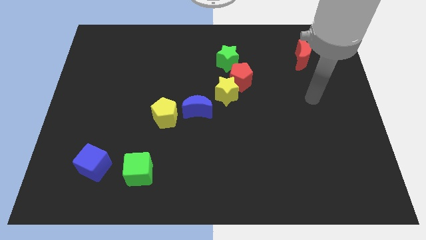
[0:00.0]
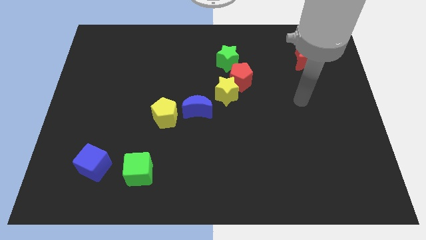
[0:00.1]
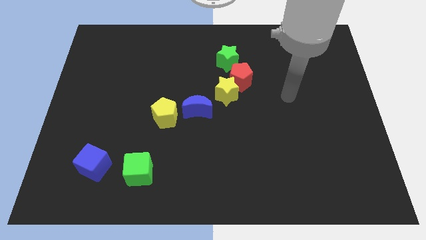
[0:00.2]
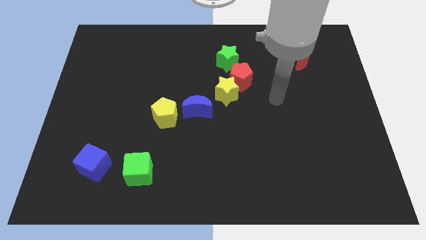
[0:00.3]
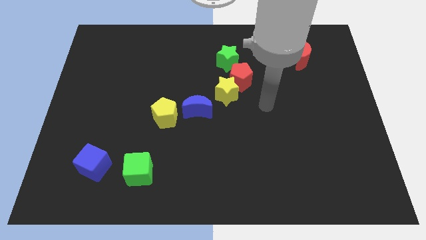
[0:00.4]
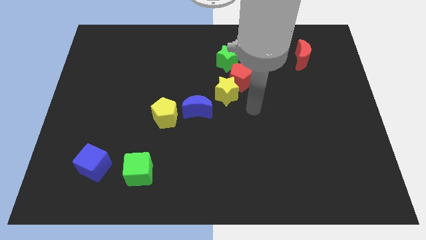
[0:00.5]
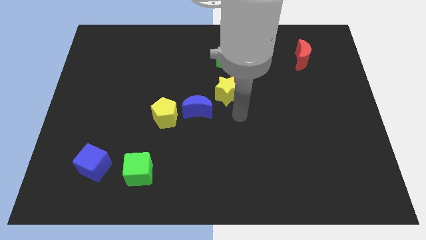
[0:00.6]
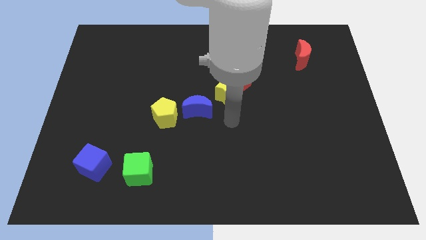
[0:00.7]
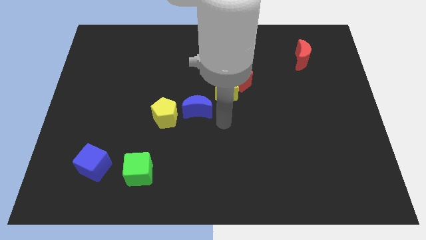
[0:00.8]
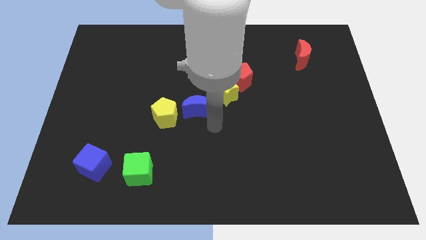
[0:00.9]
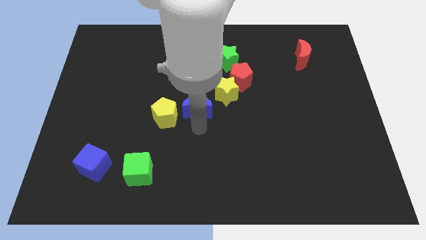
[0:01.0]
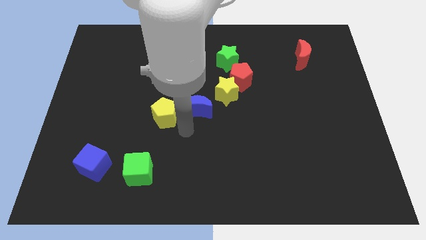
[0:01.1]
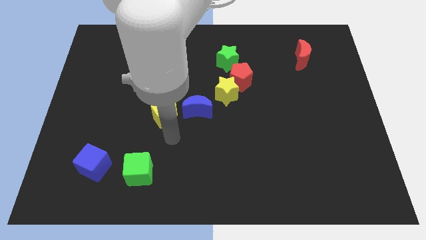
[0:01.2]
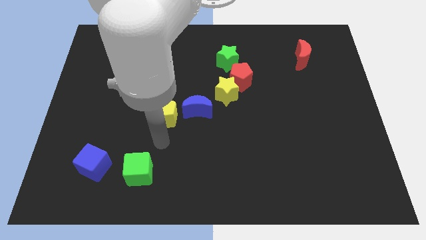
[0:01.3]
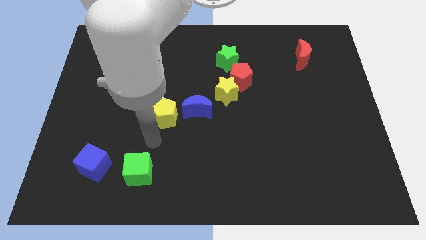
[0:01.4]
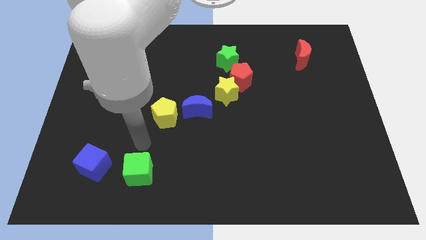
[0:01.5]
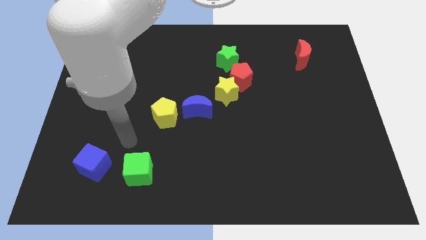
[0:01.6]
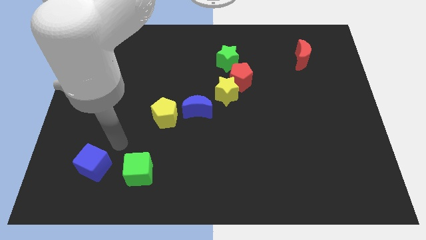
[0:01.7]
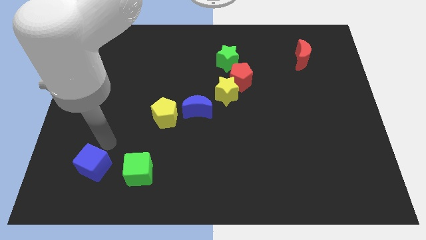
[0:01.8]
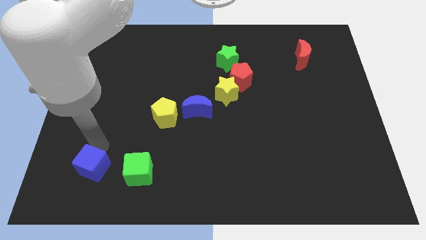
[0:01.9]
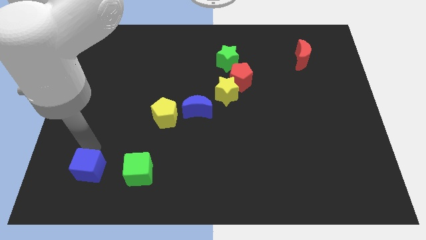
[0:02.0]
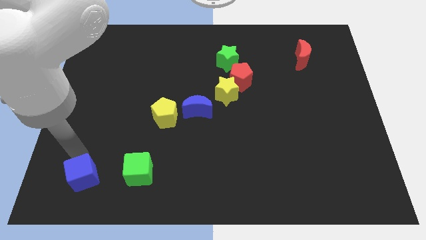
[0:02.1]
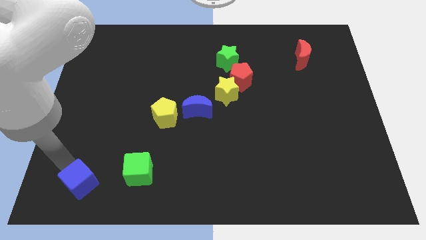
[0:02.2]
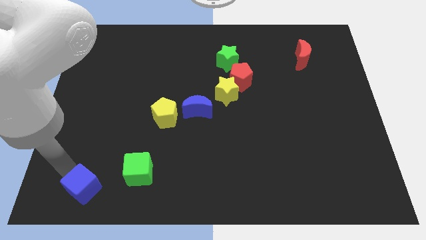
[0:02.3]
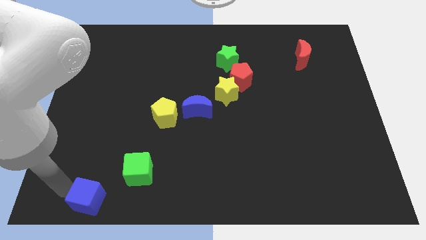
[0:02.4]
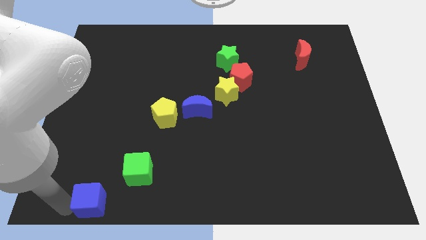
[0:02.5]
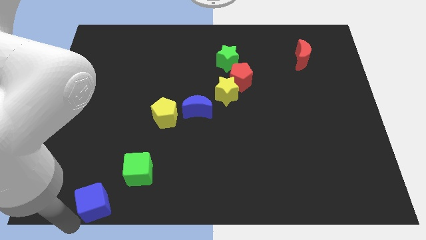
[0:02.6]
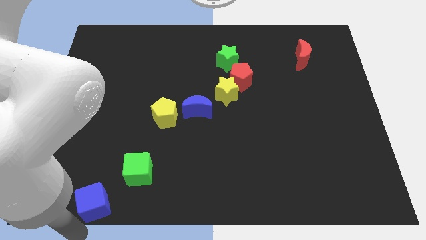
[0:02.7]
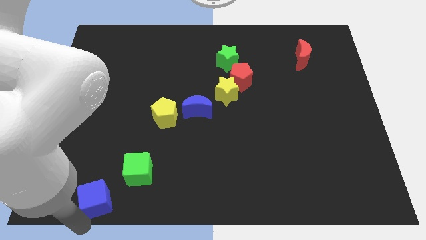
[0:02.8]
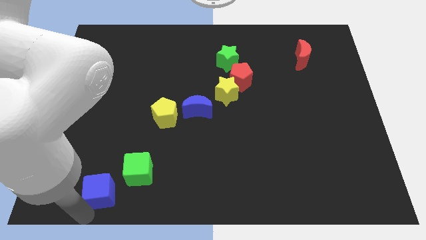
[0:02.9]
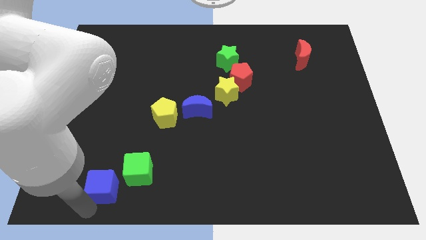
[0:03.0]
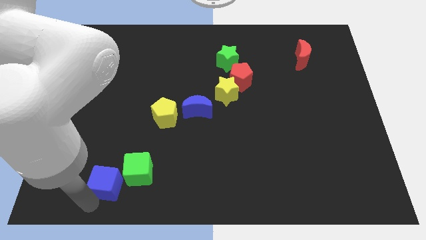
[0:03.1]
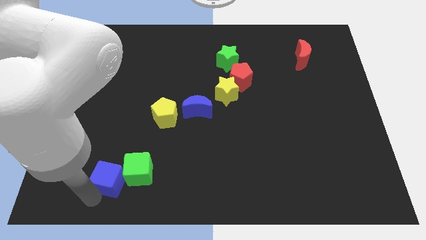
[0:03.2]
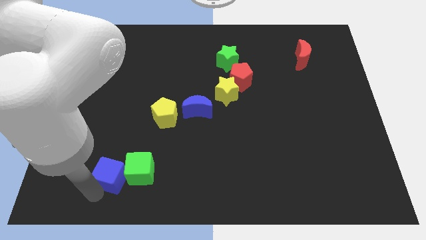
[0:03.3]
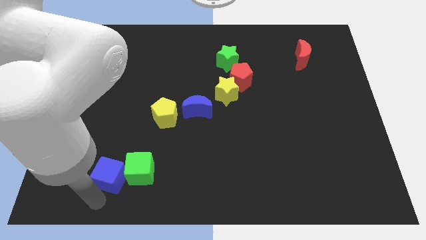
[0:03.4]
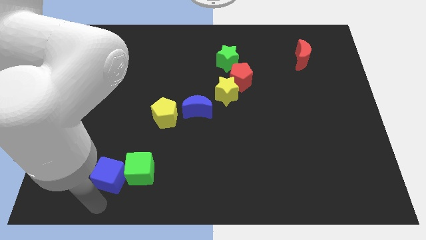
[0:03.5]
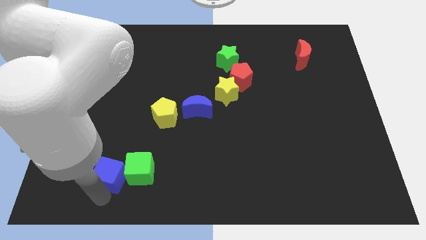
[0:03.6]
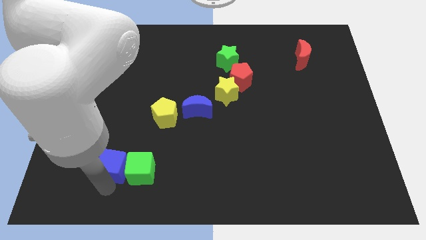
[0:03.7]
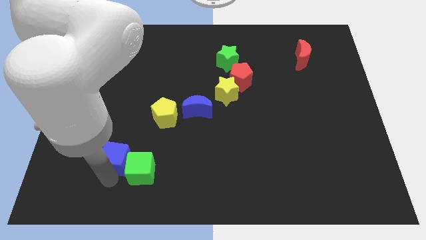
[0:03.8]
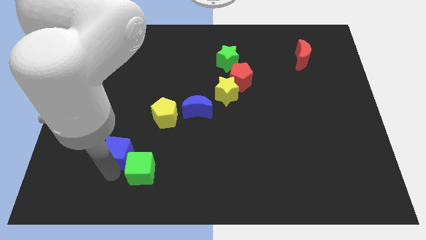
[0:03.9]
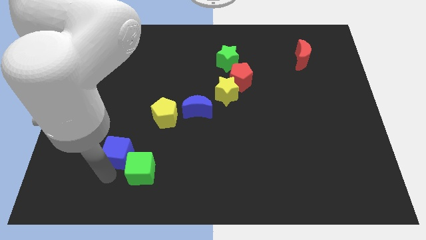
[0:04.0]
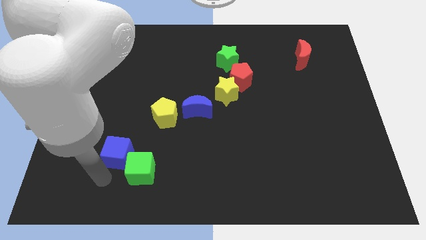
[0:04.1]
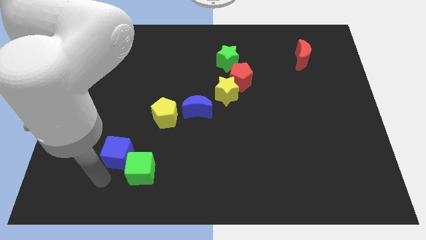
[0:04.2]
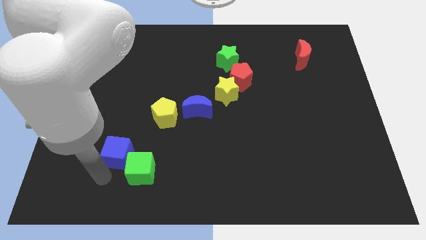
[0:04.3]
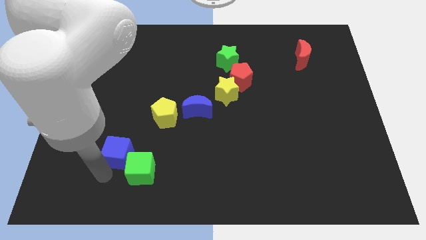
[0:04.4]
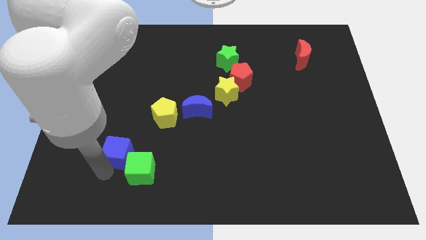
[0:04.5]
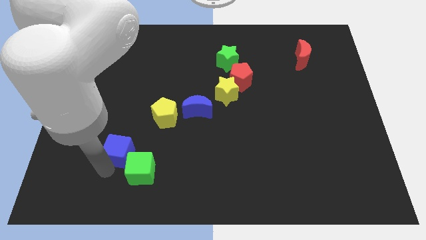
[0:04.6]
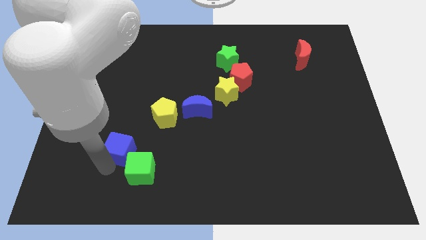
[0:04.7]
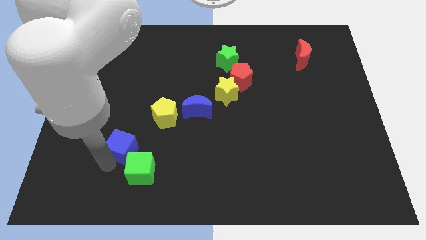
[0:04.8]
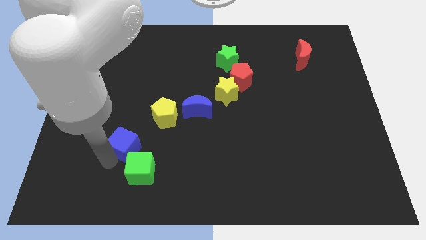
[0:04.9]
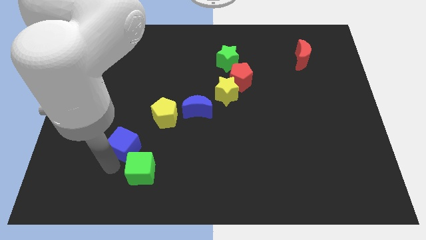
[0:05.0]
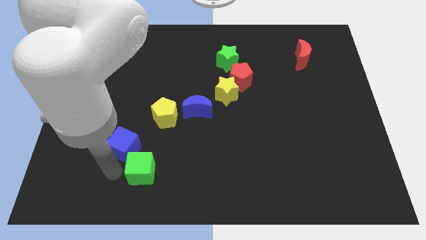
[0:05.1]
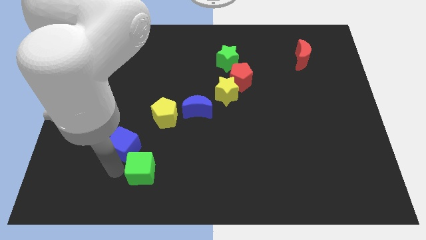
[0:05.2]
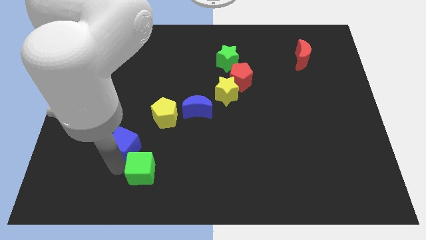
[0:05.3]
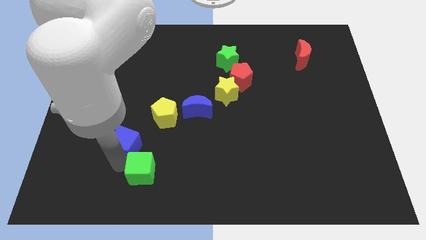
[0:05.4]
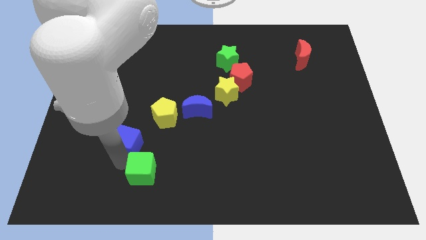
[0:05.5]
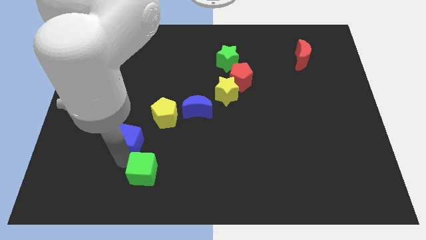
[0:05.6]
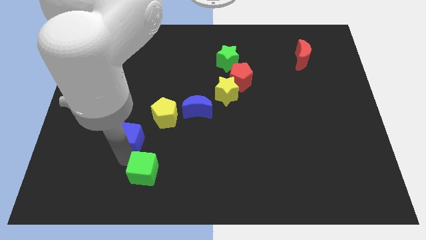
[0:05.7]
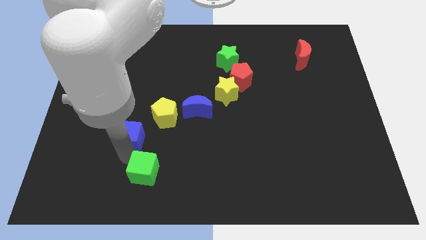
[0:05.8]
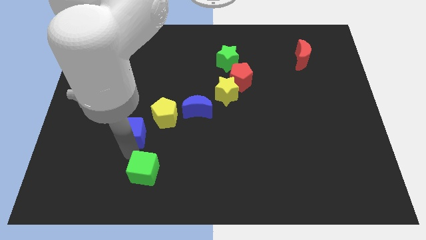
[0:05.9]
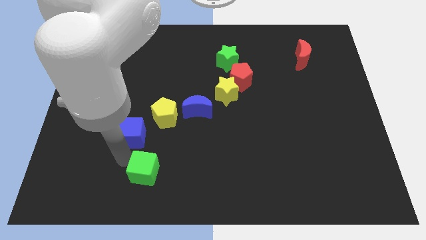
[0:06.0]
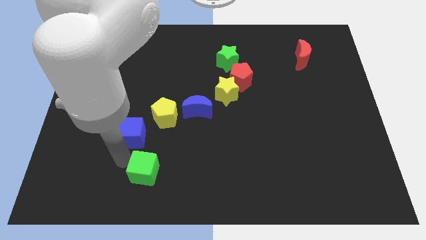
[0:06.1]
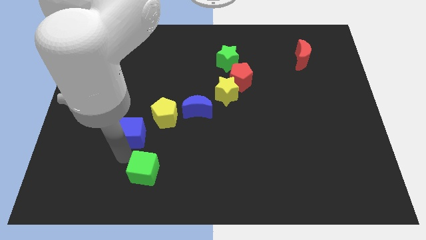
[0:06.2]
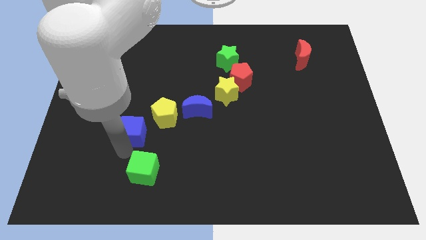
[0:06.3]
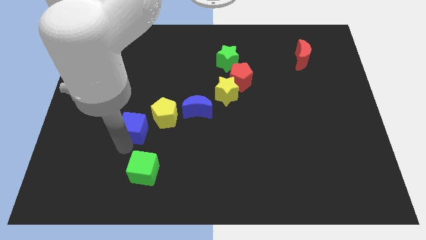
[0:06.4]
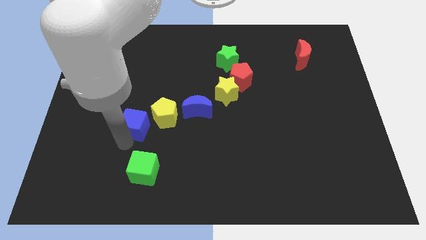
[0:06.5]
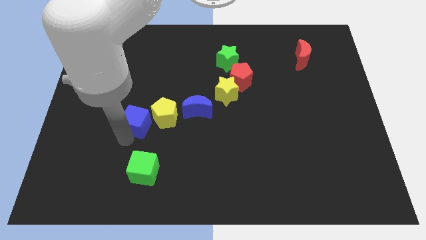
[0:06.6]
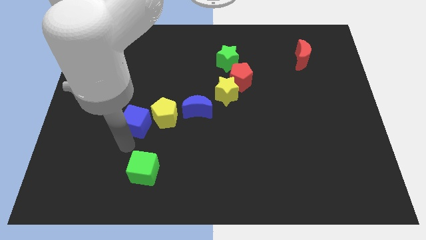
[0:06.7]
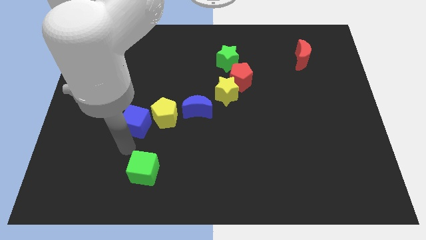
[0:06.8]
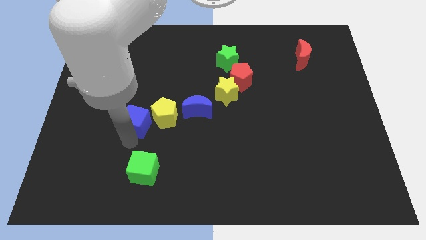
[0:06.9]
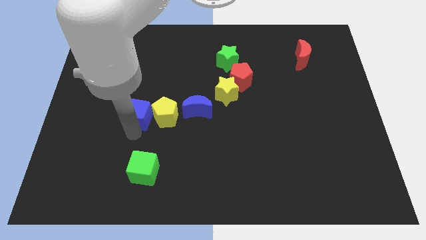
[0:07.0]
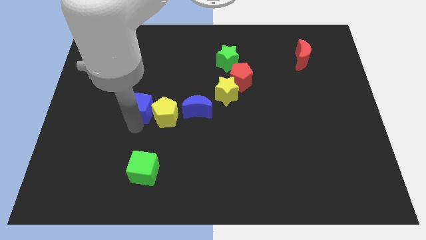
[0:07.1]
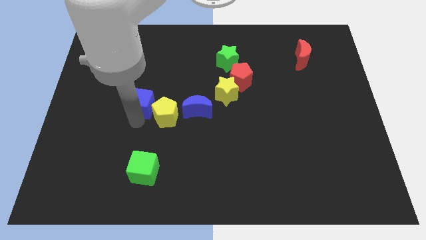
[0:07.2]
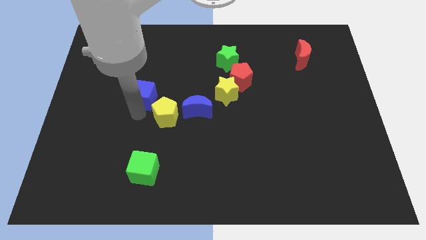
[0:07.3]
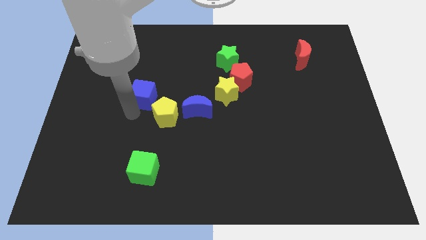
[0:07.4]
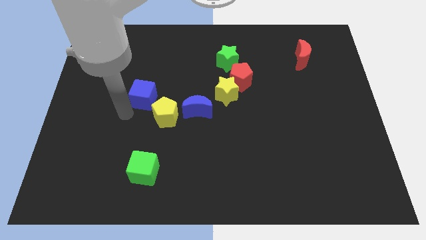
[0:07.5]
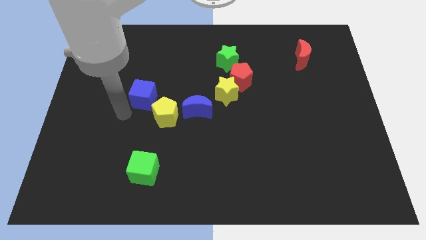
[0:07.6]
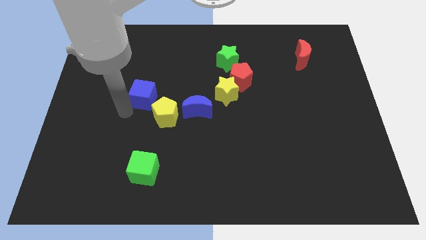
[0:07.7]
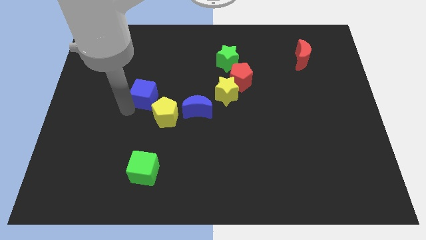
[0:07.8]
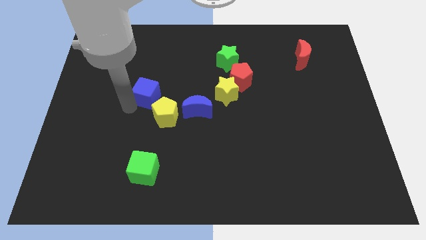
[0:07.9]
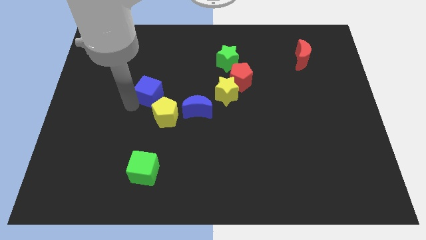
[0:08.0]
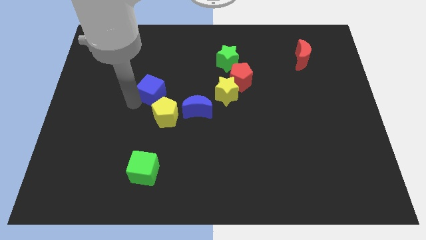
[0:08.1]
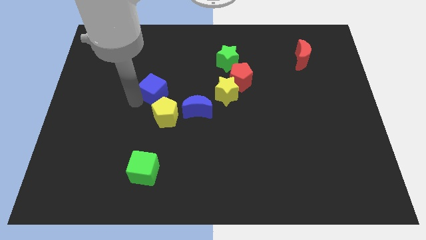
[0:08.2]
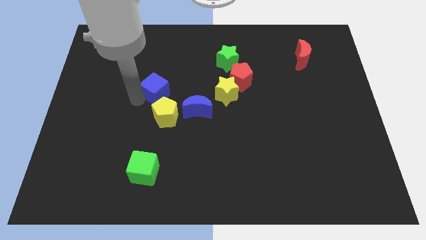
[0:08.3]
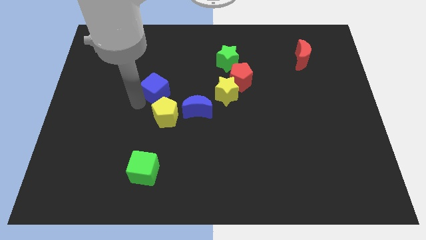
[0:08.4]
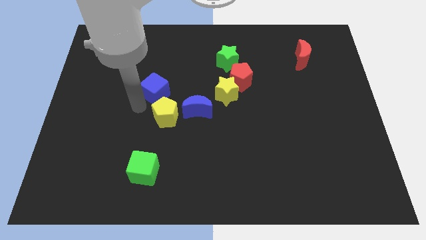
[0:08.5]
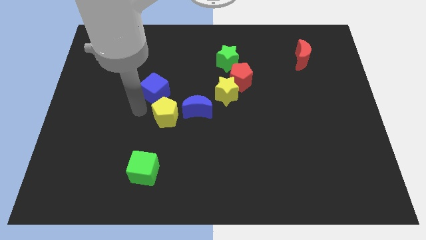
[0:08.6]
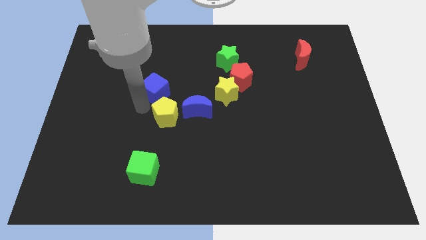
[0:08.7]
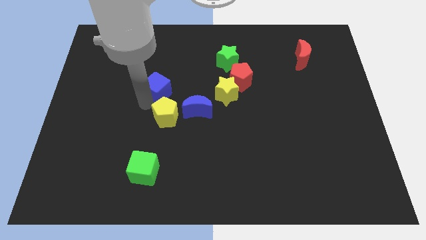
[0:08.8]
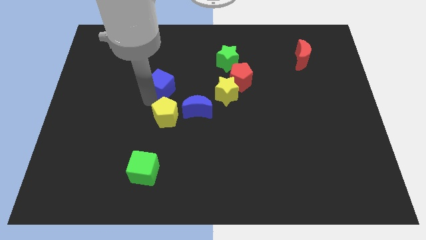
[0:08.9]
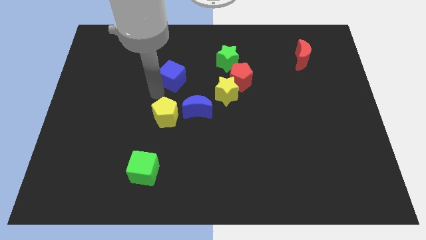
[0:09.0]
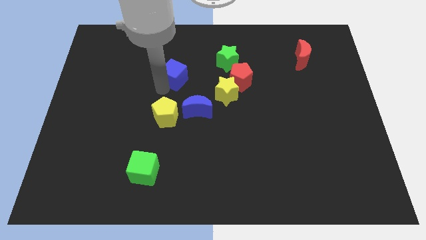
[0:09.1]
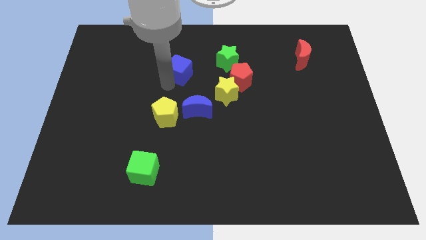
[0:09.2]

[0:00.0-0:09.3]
slide the blue cube left of the green star
